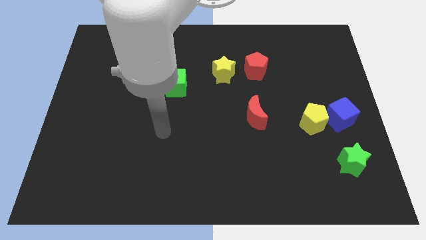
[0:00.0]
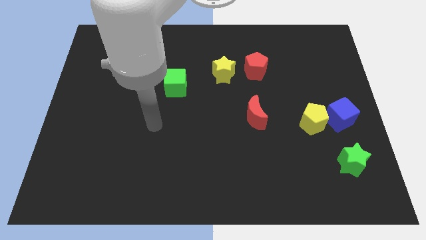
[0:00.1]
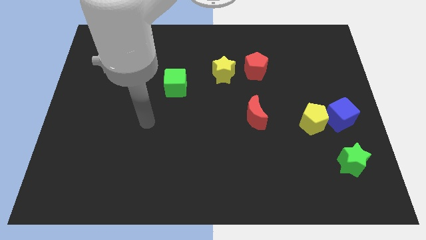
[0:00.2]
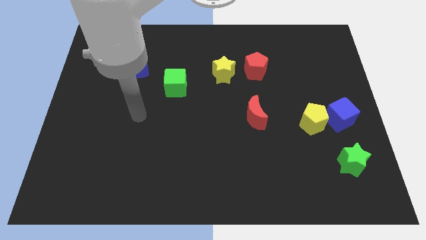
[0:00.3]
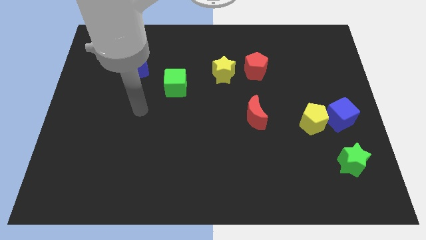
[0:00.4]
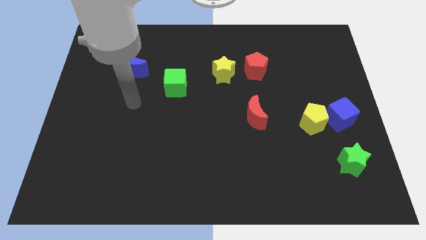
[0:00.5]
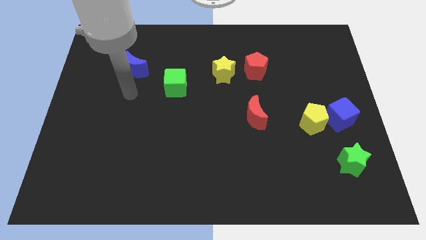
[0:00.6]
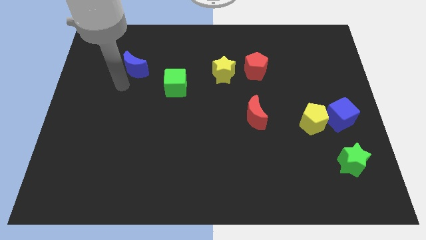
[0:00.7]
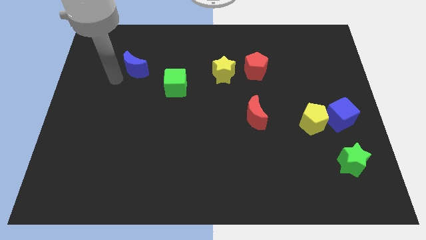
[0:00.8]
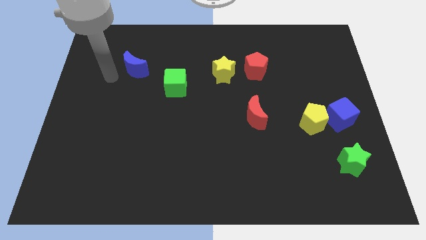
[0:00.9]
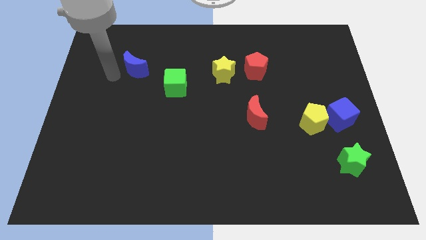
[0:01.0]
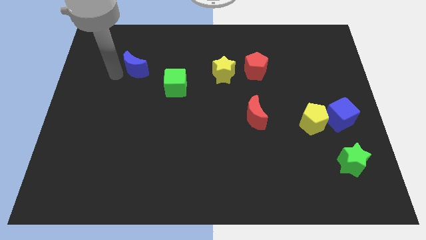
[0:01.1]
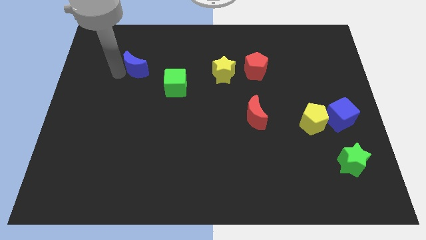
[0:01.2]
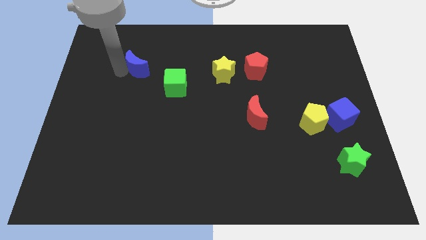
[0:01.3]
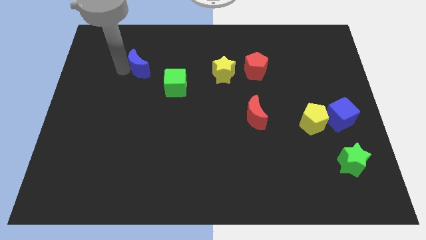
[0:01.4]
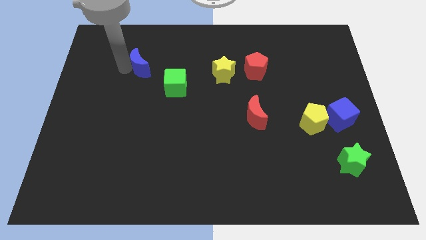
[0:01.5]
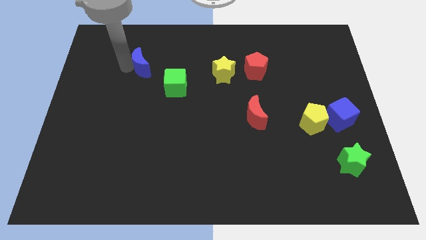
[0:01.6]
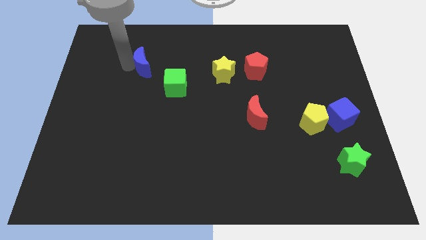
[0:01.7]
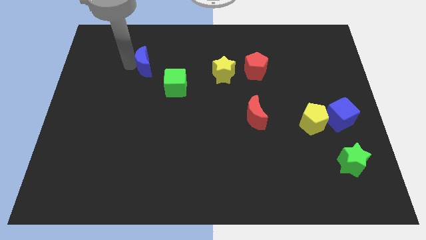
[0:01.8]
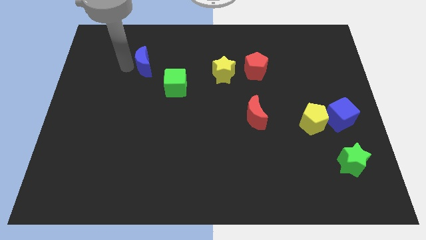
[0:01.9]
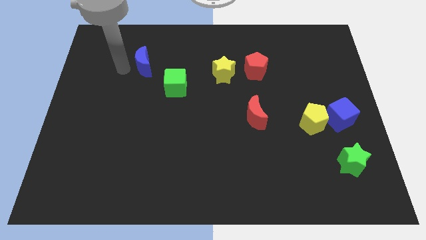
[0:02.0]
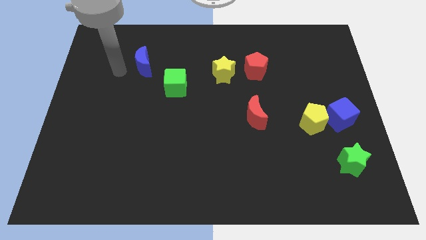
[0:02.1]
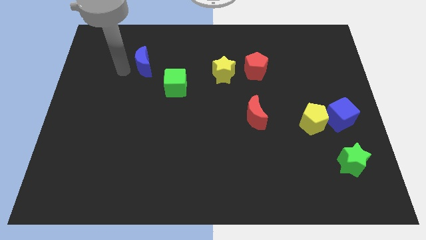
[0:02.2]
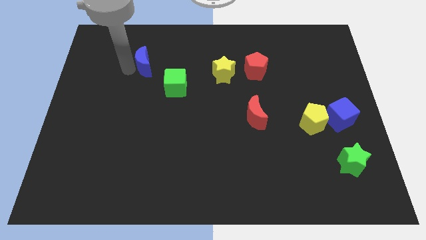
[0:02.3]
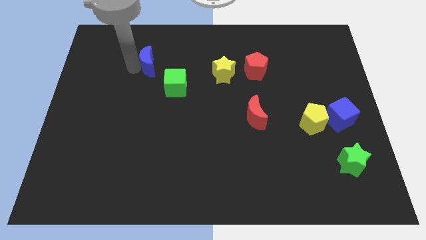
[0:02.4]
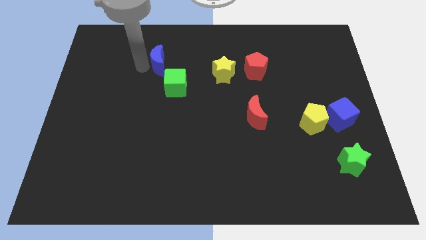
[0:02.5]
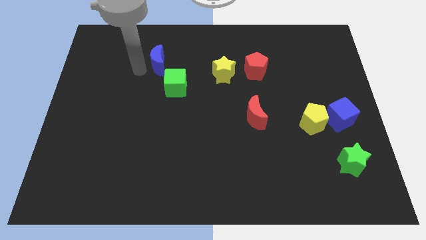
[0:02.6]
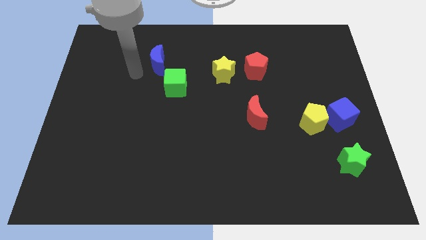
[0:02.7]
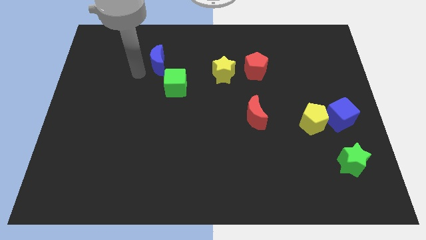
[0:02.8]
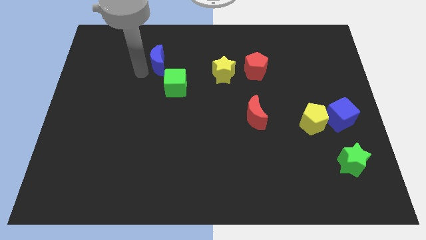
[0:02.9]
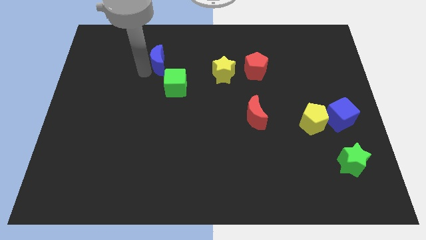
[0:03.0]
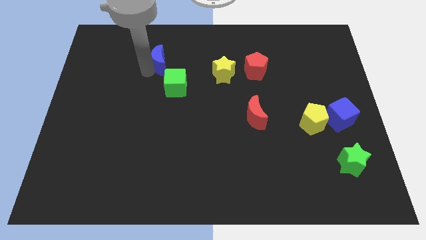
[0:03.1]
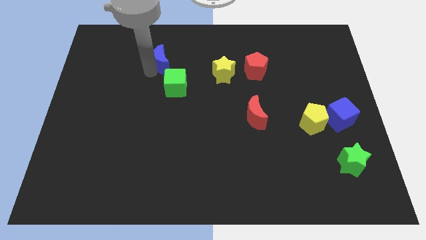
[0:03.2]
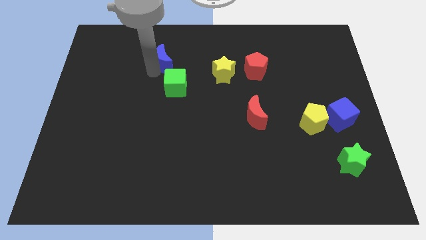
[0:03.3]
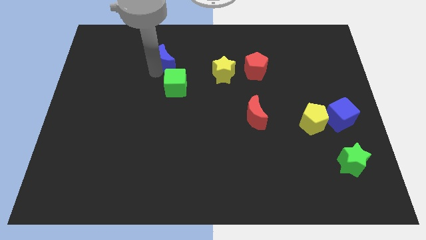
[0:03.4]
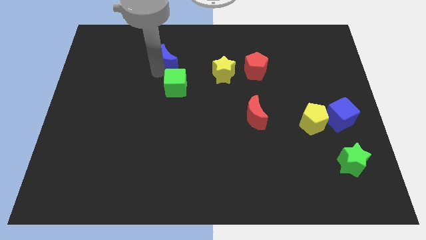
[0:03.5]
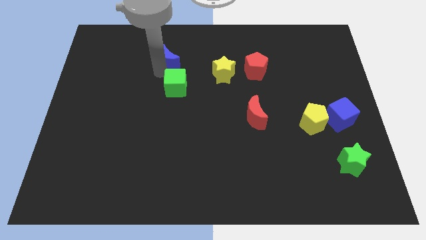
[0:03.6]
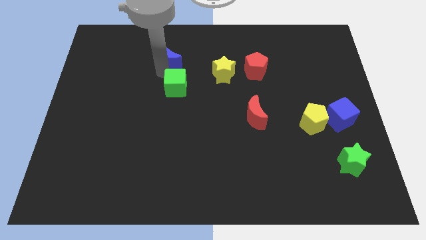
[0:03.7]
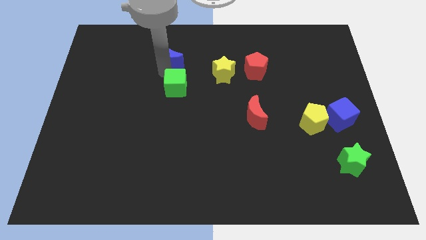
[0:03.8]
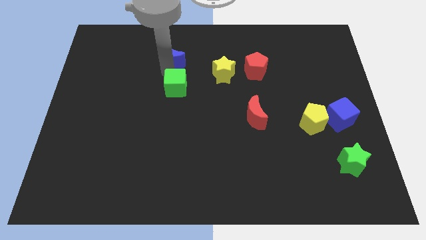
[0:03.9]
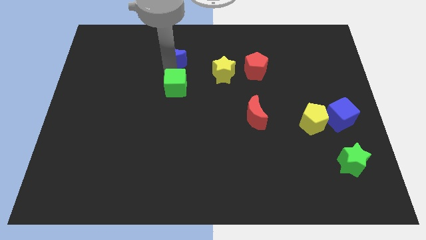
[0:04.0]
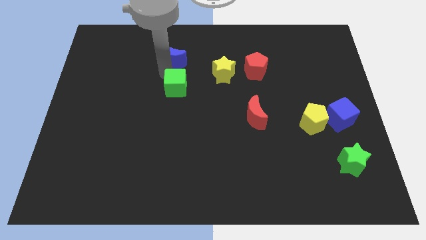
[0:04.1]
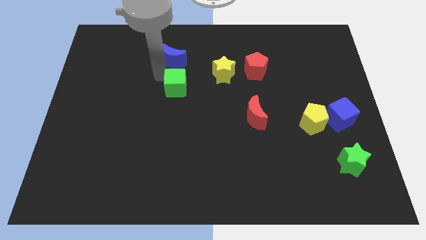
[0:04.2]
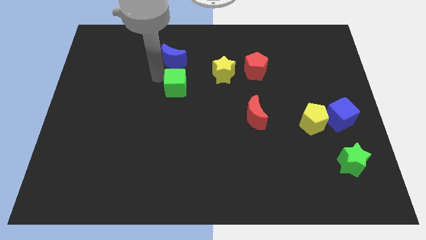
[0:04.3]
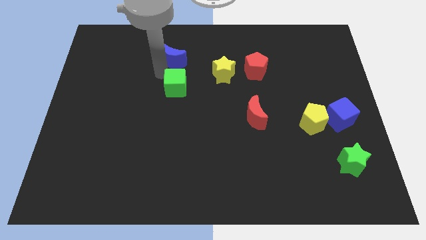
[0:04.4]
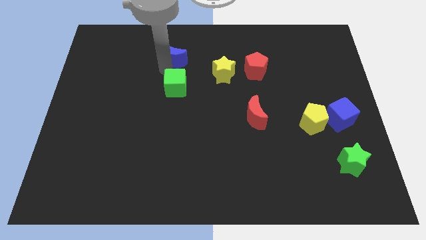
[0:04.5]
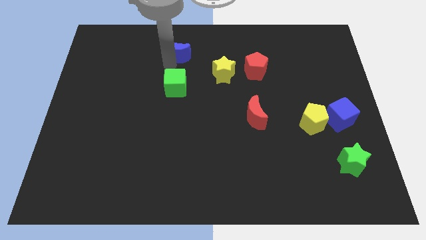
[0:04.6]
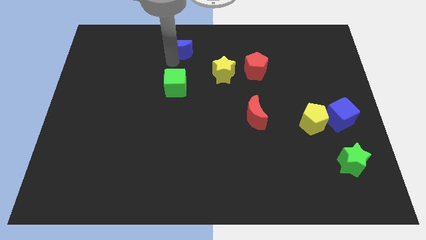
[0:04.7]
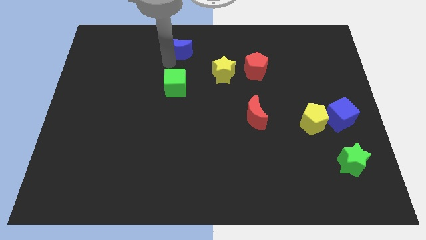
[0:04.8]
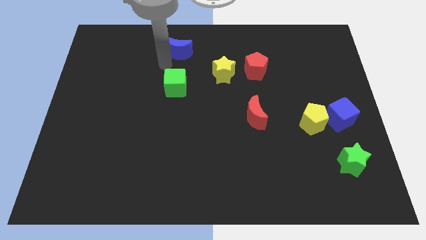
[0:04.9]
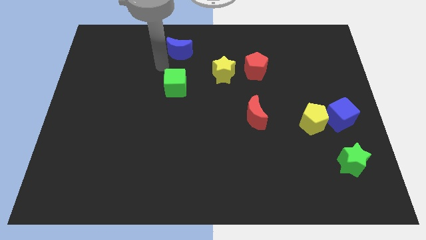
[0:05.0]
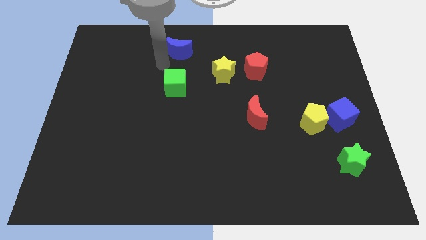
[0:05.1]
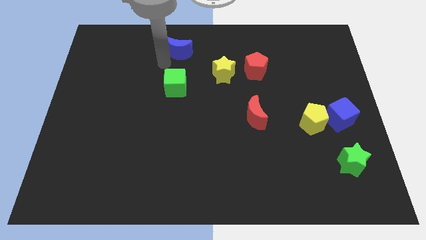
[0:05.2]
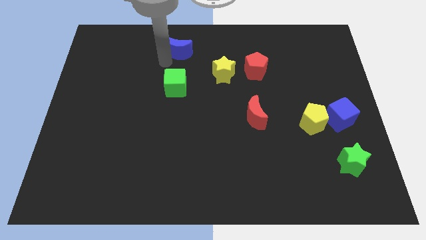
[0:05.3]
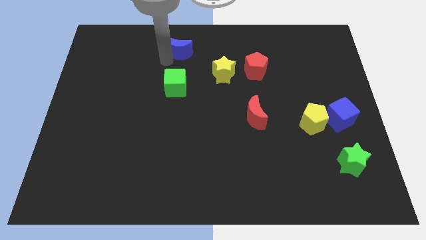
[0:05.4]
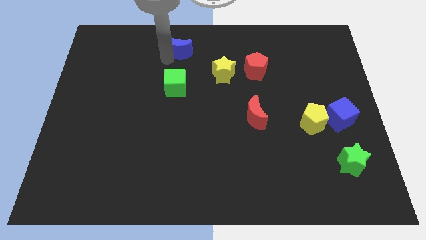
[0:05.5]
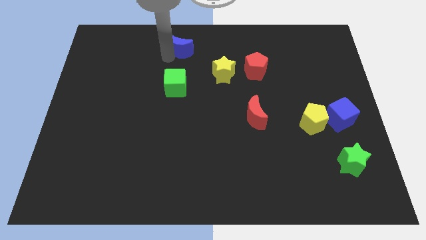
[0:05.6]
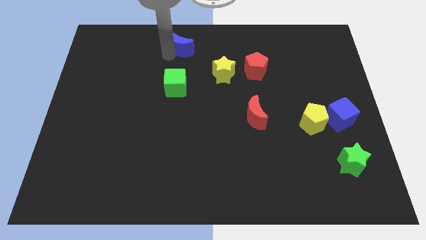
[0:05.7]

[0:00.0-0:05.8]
put the blue moon to the towards your base

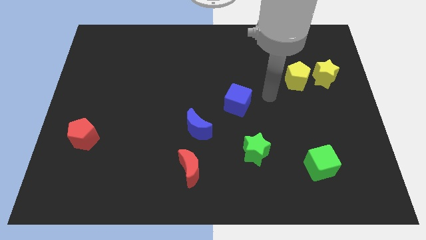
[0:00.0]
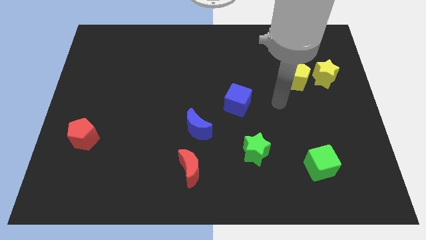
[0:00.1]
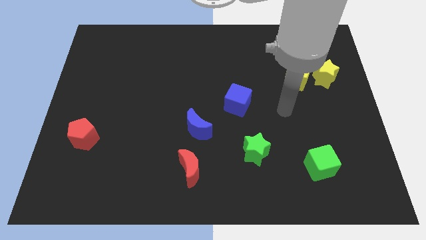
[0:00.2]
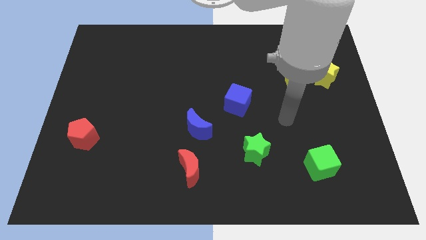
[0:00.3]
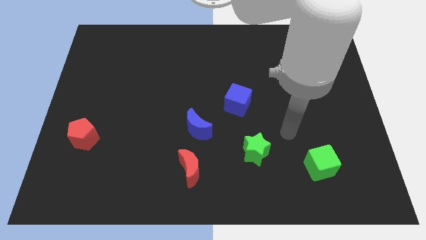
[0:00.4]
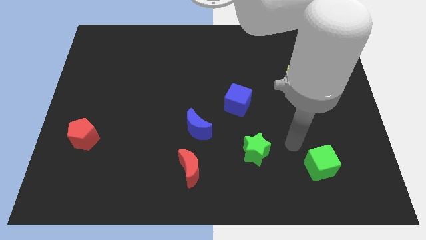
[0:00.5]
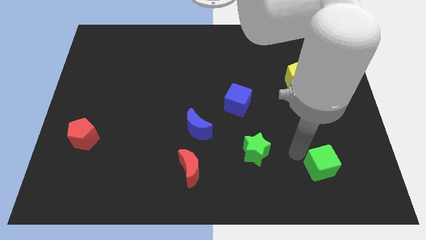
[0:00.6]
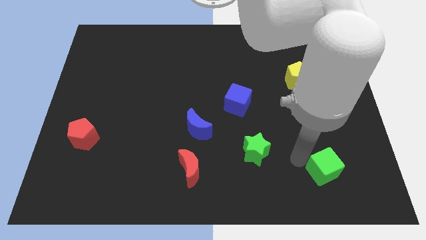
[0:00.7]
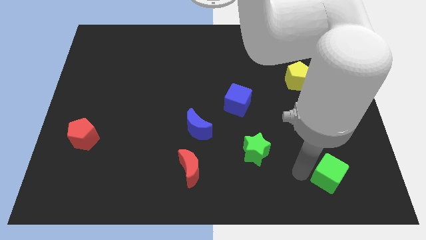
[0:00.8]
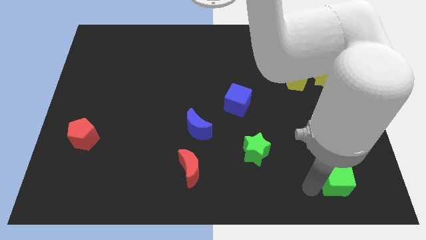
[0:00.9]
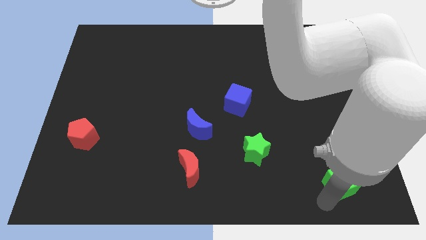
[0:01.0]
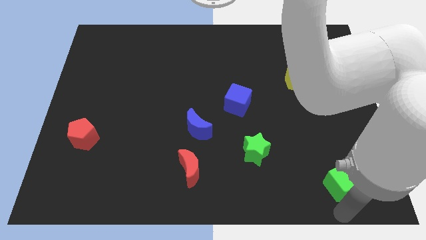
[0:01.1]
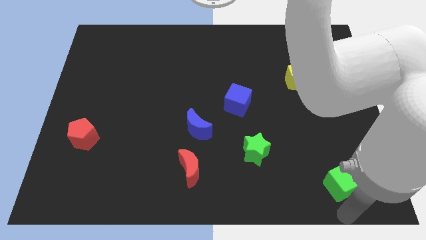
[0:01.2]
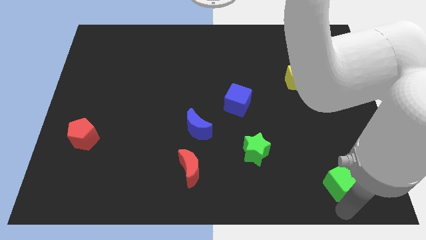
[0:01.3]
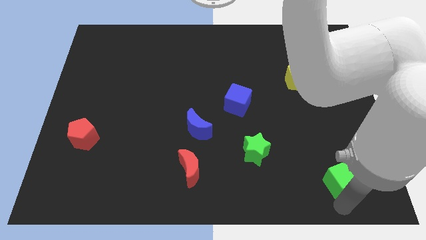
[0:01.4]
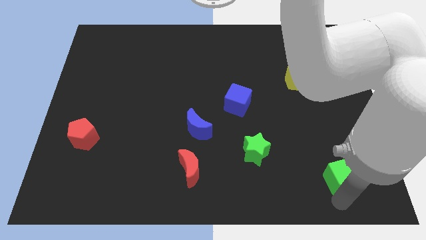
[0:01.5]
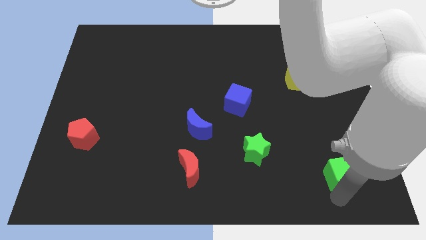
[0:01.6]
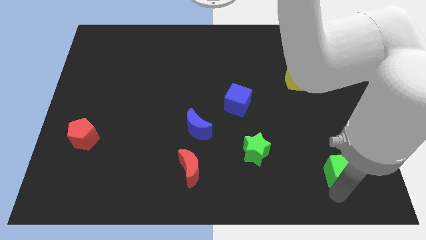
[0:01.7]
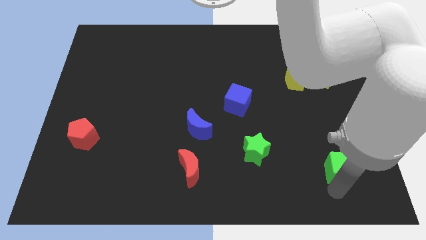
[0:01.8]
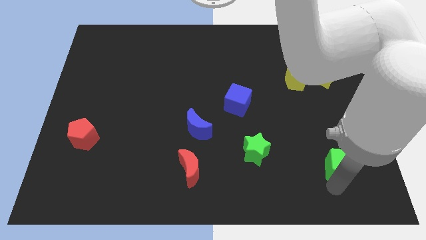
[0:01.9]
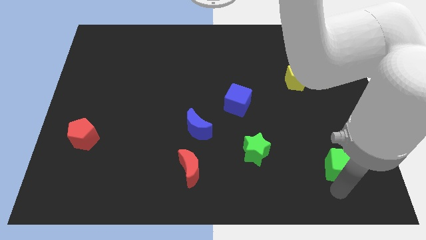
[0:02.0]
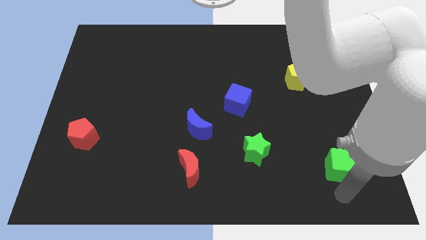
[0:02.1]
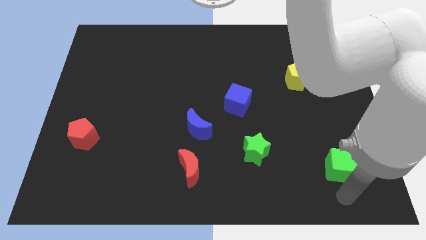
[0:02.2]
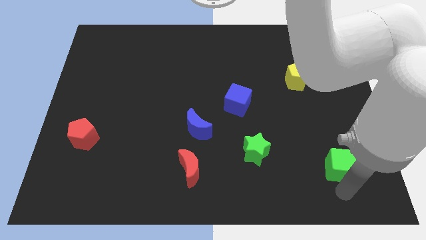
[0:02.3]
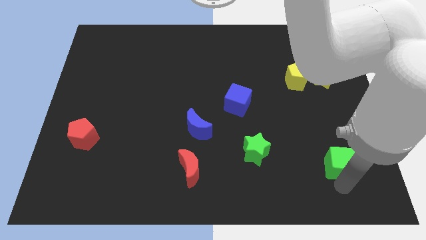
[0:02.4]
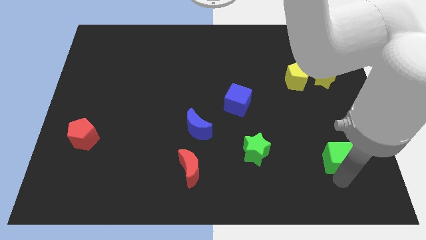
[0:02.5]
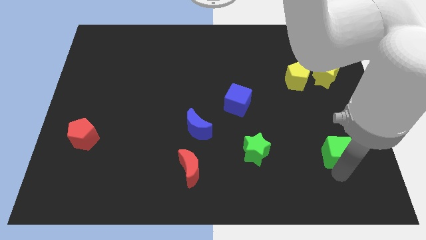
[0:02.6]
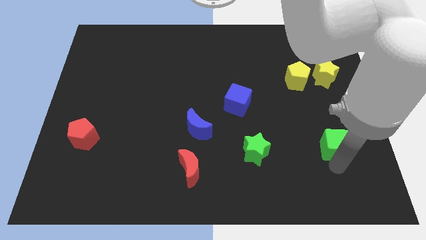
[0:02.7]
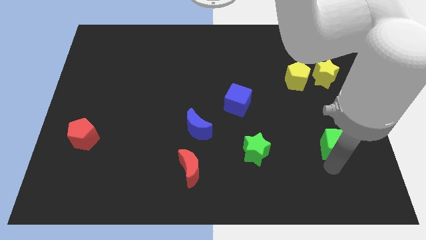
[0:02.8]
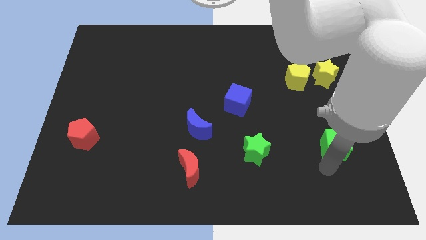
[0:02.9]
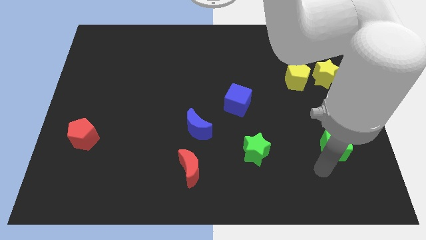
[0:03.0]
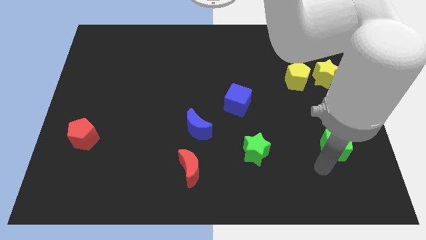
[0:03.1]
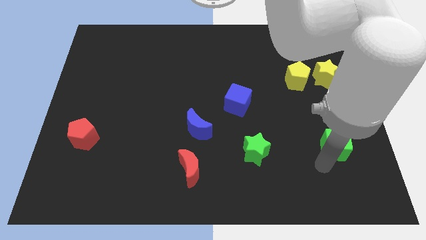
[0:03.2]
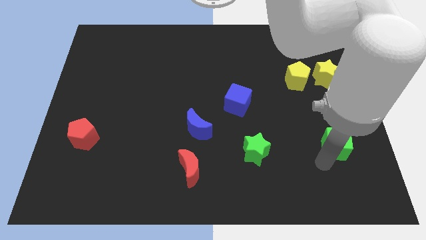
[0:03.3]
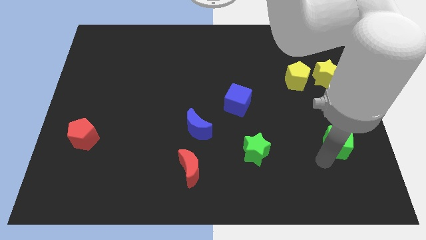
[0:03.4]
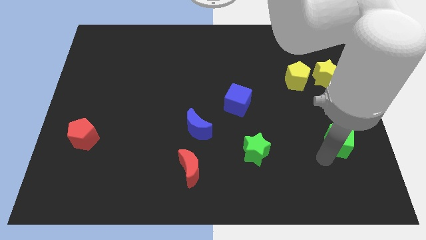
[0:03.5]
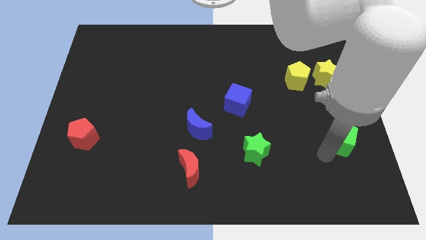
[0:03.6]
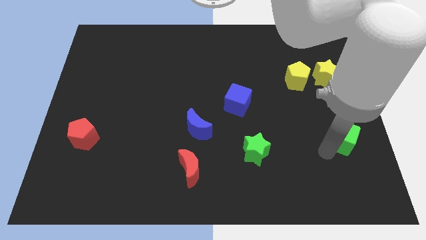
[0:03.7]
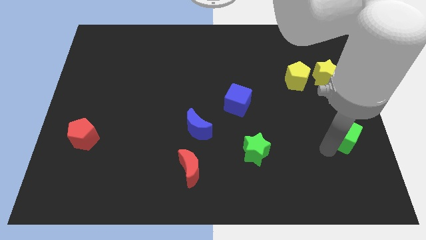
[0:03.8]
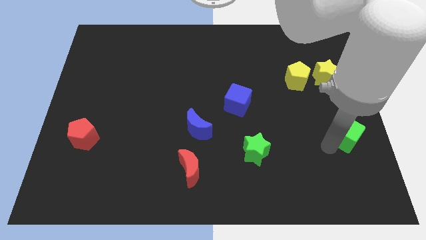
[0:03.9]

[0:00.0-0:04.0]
slide the green cube to the right side of the board
